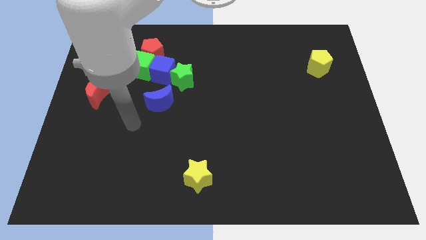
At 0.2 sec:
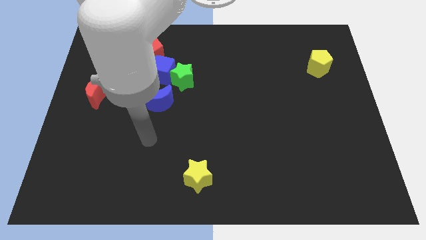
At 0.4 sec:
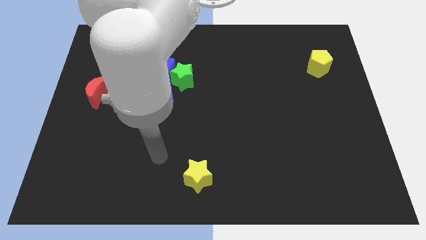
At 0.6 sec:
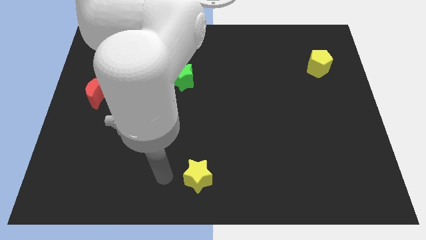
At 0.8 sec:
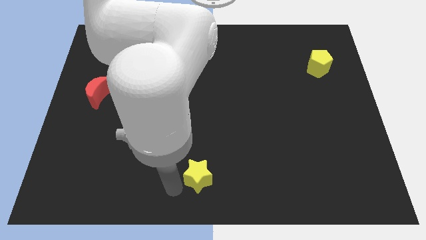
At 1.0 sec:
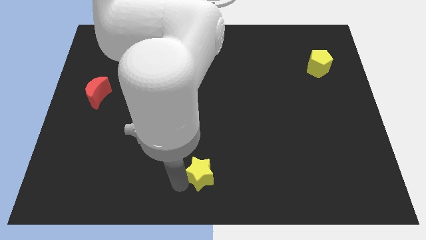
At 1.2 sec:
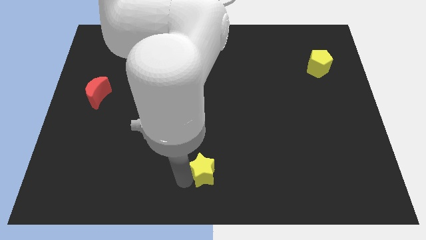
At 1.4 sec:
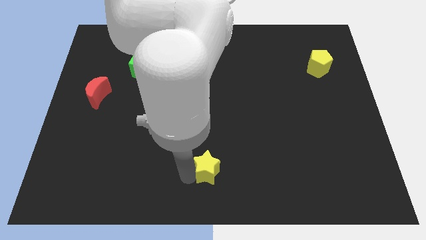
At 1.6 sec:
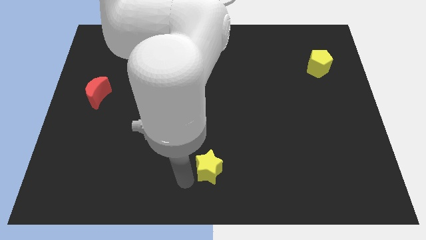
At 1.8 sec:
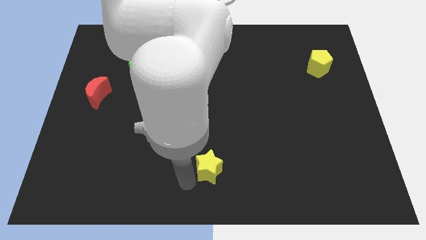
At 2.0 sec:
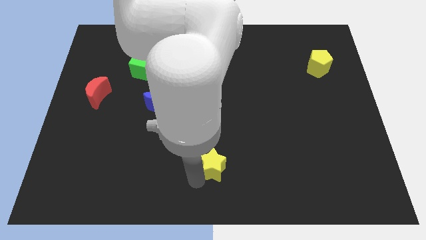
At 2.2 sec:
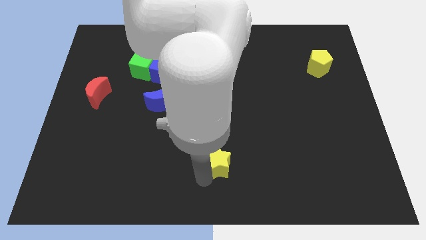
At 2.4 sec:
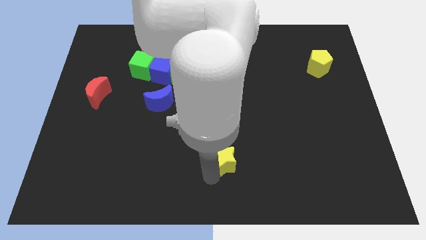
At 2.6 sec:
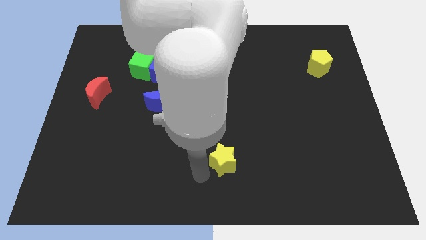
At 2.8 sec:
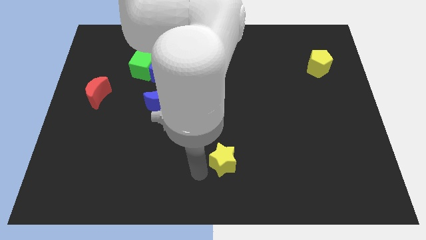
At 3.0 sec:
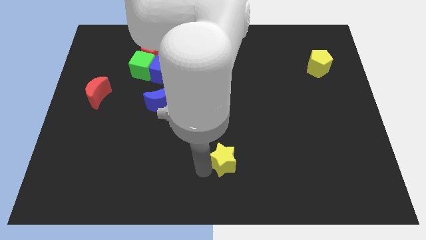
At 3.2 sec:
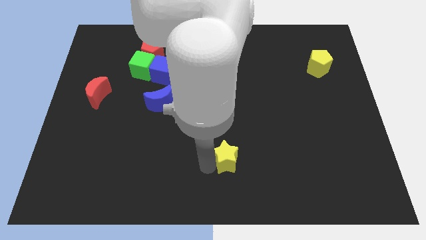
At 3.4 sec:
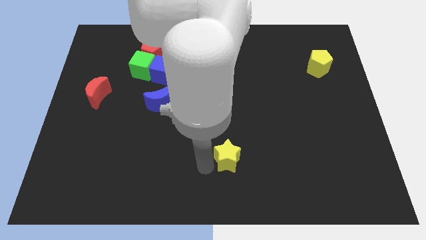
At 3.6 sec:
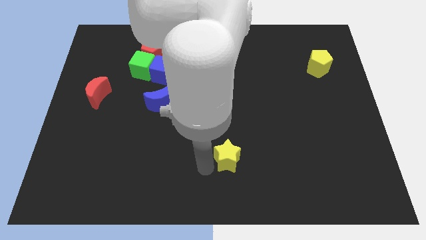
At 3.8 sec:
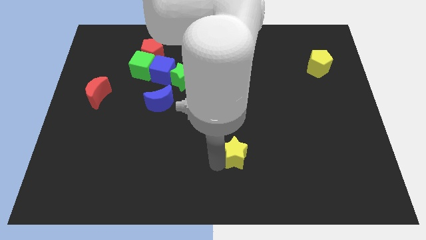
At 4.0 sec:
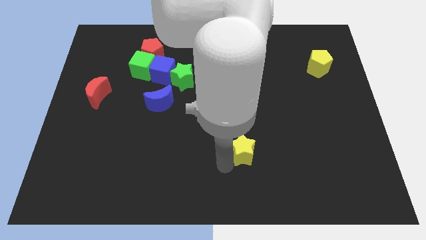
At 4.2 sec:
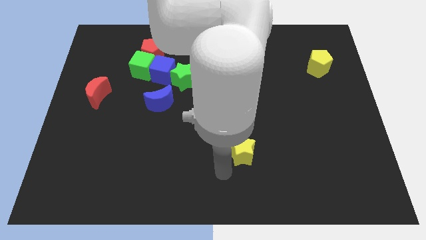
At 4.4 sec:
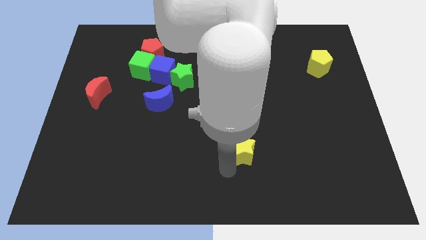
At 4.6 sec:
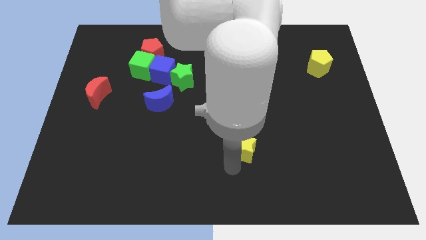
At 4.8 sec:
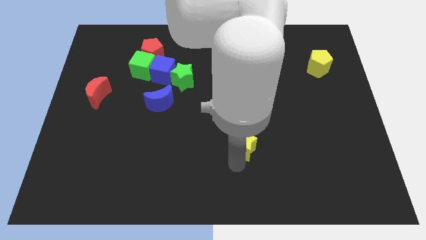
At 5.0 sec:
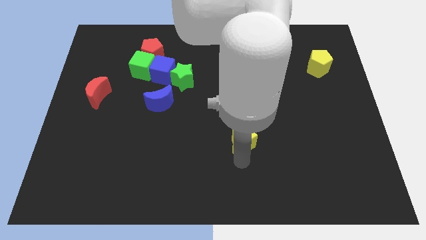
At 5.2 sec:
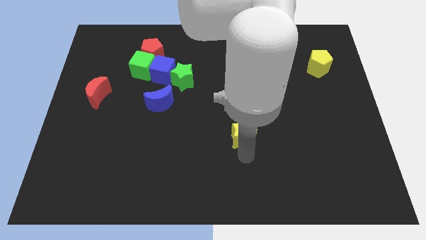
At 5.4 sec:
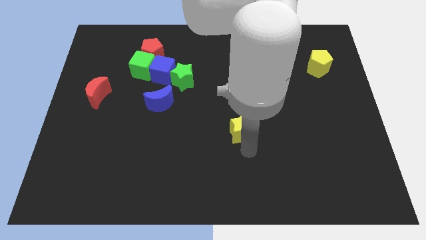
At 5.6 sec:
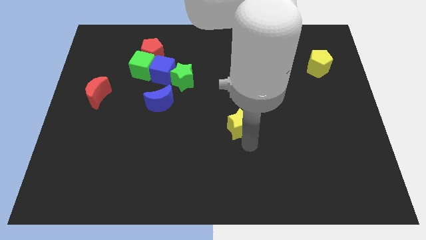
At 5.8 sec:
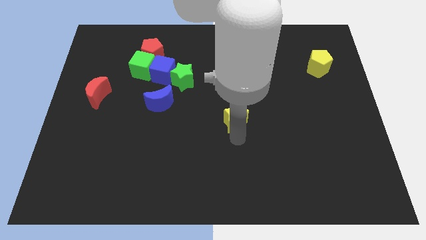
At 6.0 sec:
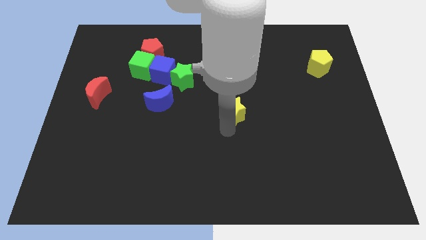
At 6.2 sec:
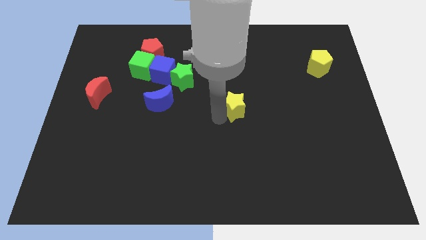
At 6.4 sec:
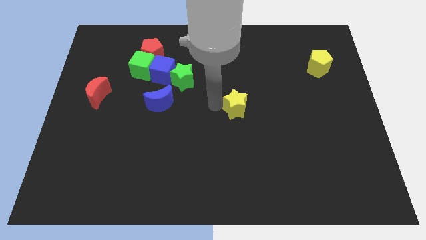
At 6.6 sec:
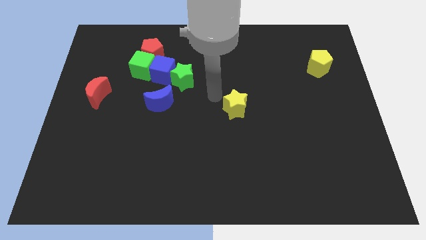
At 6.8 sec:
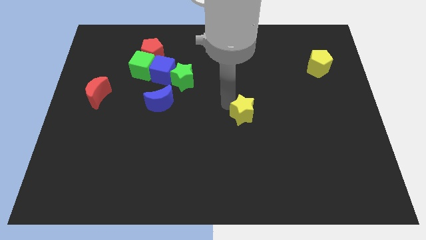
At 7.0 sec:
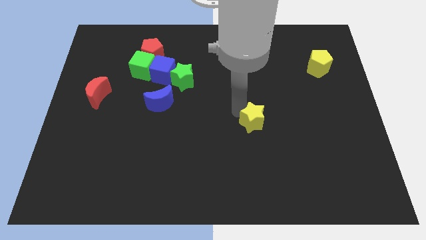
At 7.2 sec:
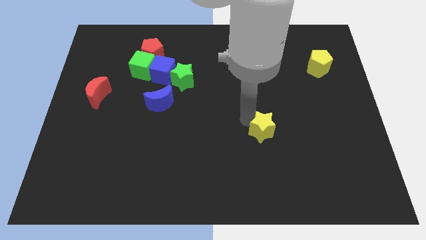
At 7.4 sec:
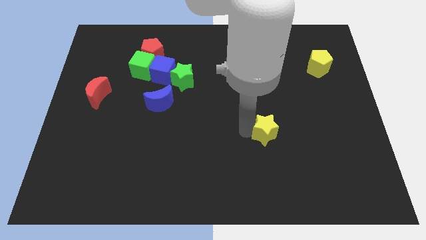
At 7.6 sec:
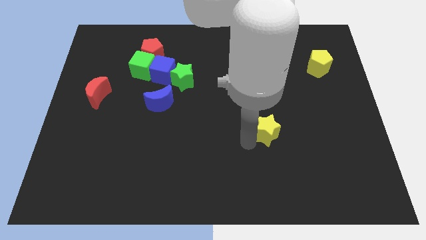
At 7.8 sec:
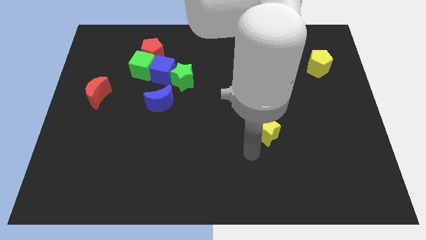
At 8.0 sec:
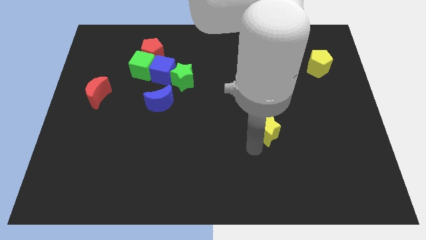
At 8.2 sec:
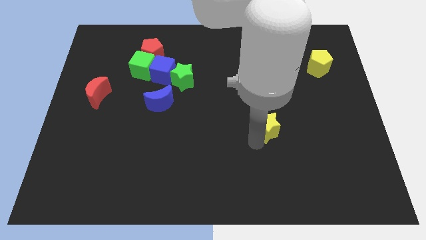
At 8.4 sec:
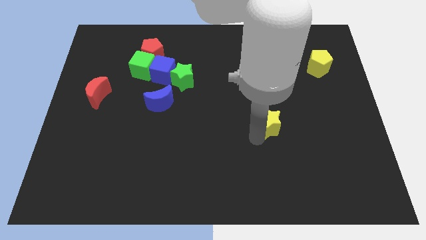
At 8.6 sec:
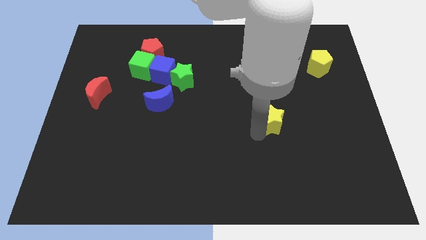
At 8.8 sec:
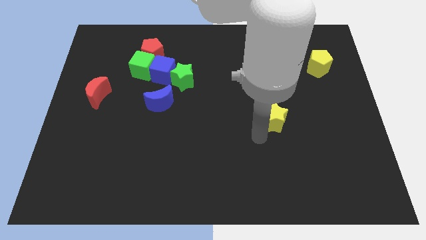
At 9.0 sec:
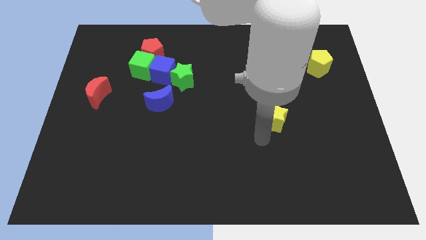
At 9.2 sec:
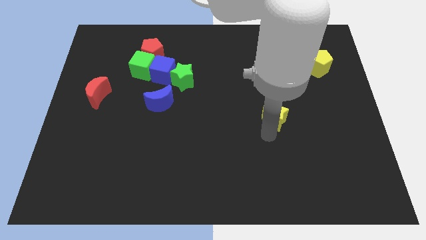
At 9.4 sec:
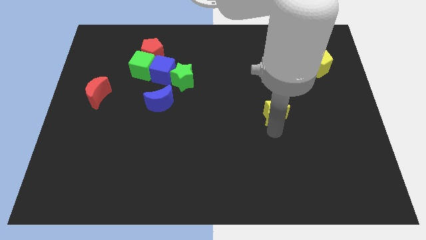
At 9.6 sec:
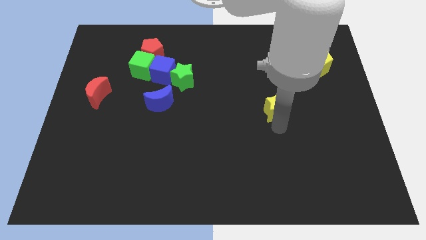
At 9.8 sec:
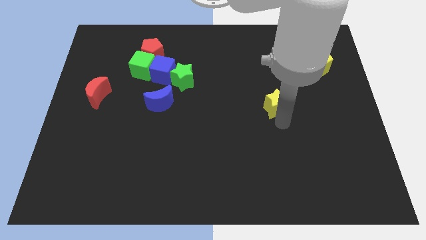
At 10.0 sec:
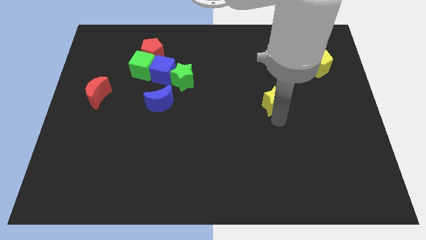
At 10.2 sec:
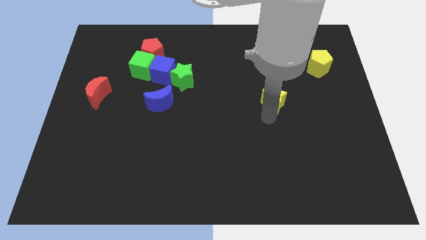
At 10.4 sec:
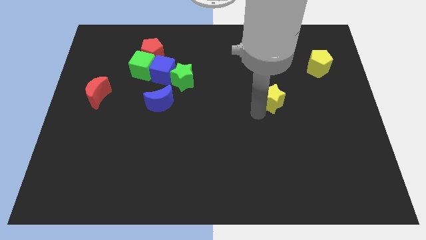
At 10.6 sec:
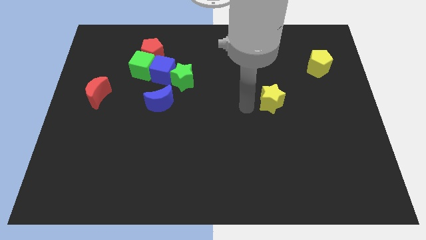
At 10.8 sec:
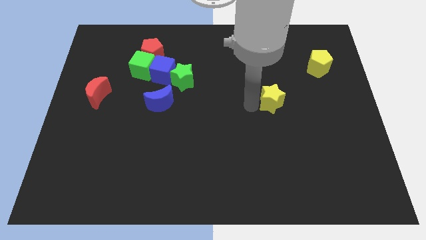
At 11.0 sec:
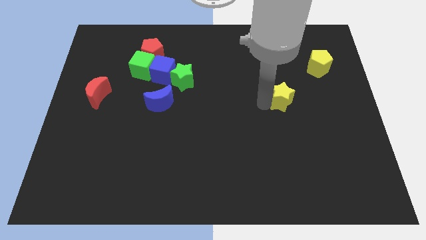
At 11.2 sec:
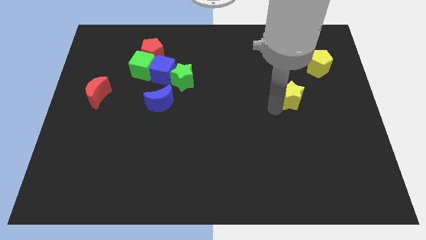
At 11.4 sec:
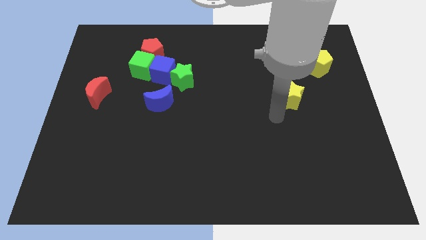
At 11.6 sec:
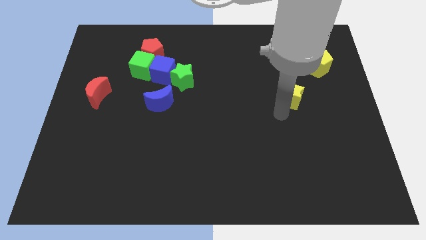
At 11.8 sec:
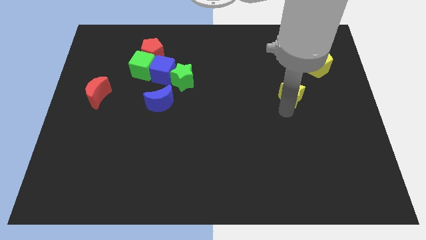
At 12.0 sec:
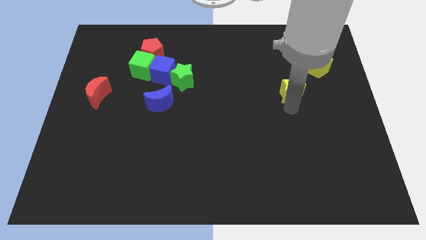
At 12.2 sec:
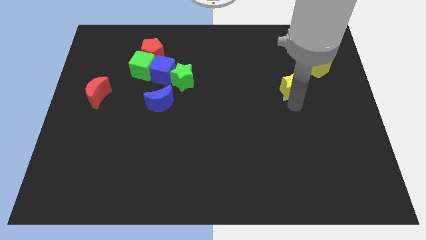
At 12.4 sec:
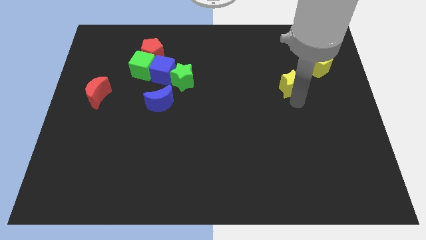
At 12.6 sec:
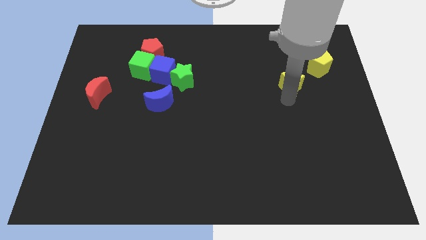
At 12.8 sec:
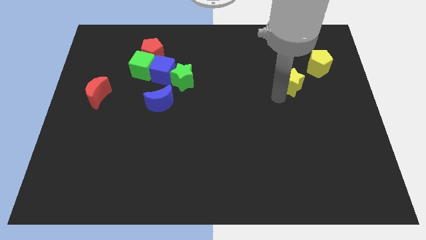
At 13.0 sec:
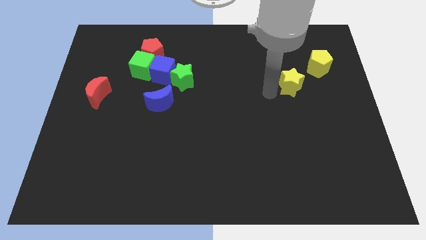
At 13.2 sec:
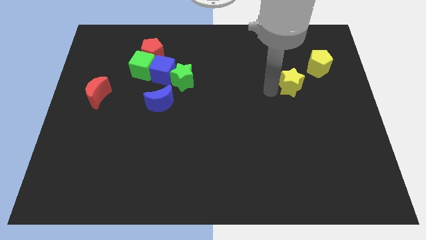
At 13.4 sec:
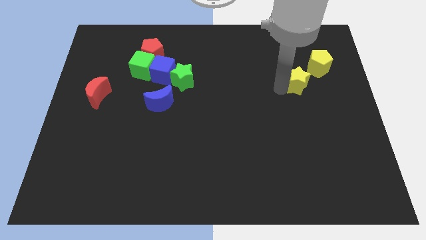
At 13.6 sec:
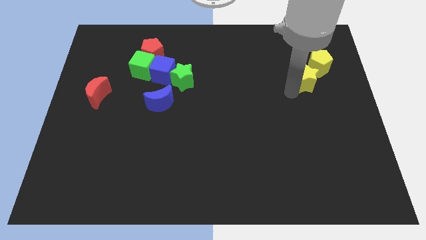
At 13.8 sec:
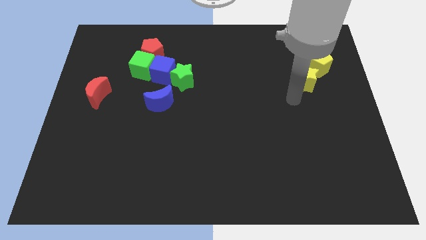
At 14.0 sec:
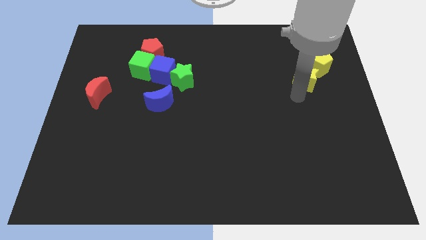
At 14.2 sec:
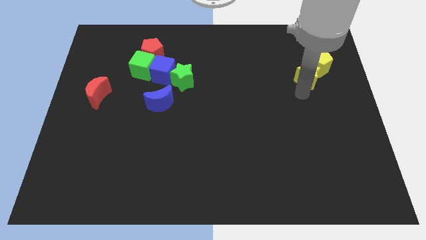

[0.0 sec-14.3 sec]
put the yellow star towards the yellow pentagon

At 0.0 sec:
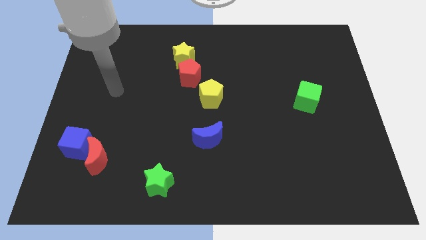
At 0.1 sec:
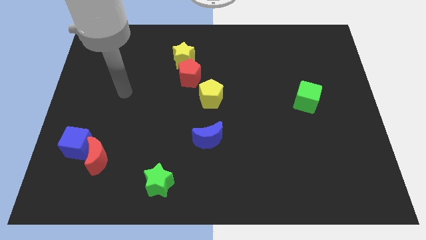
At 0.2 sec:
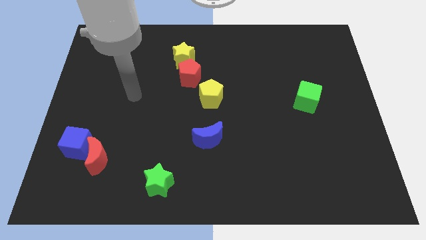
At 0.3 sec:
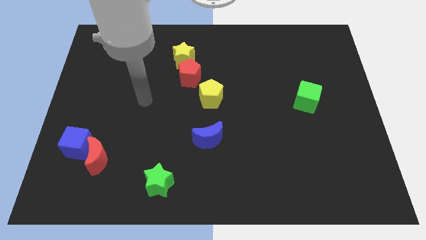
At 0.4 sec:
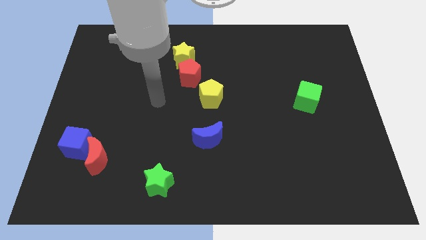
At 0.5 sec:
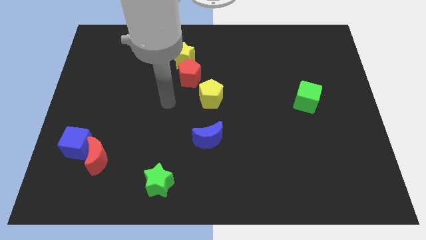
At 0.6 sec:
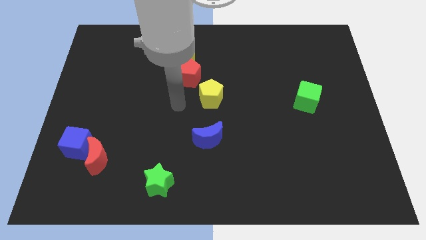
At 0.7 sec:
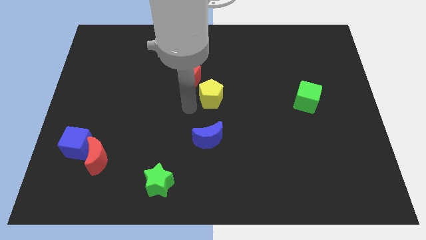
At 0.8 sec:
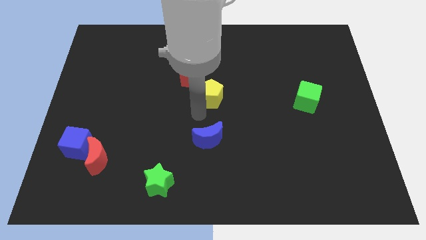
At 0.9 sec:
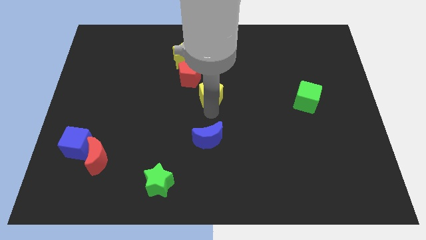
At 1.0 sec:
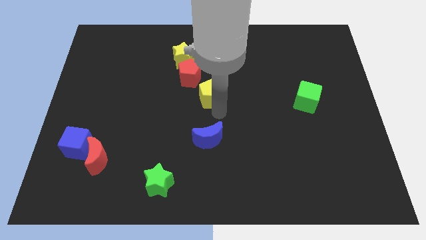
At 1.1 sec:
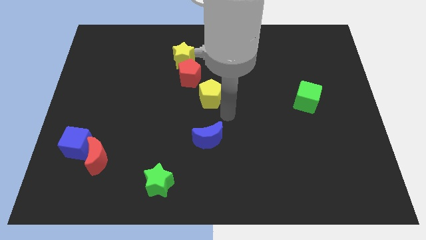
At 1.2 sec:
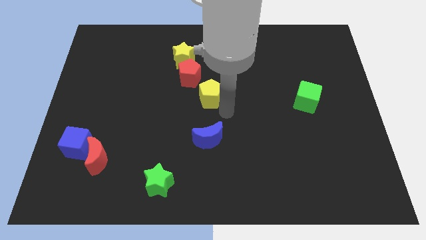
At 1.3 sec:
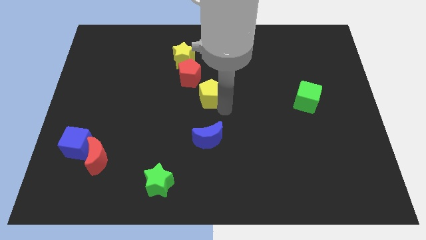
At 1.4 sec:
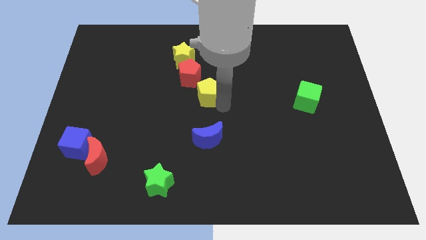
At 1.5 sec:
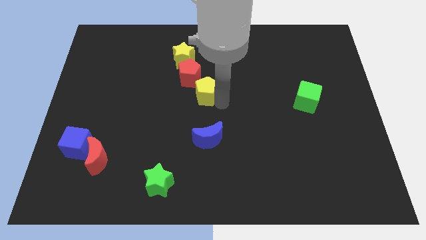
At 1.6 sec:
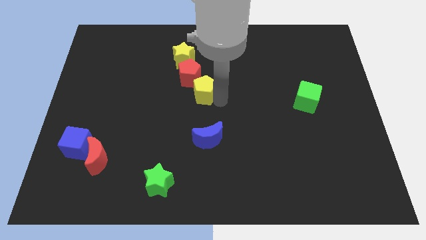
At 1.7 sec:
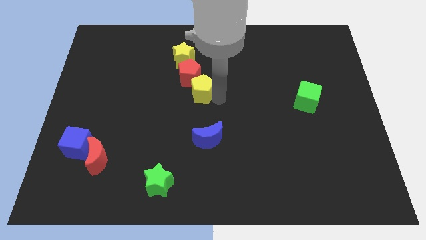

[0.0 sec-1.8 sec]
move the yellow pentagon next to the red pentagon
